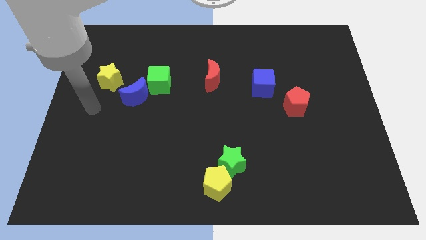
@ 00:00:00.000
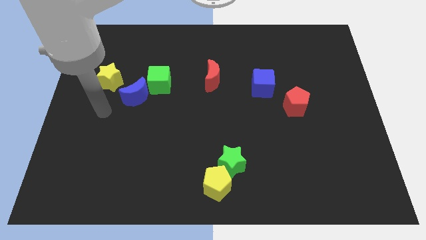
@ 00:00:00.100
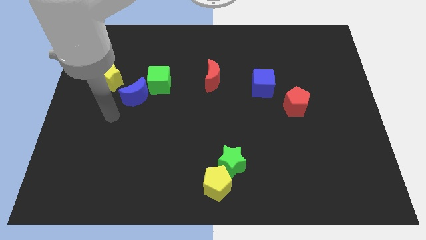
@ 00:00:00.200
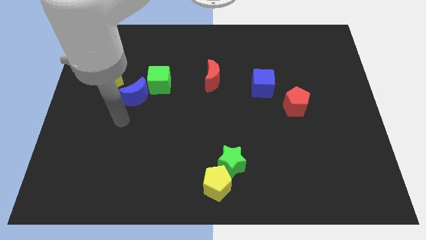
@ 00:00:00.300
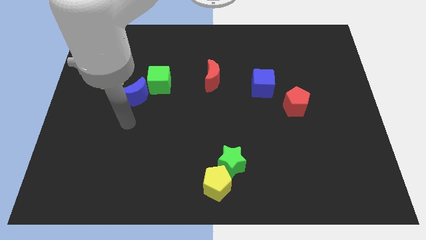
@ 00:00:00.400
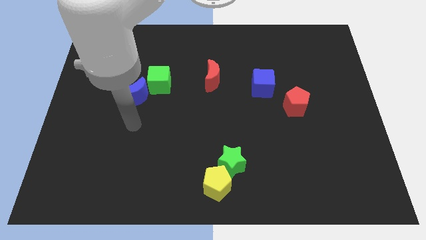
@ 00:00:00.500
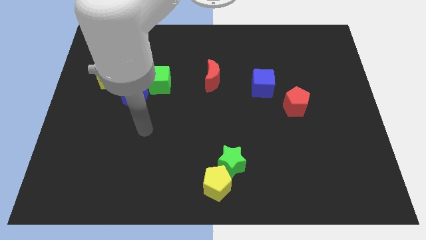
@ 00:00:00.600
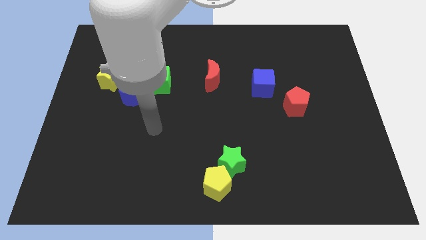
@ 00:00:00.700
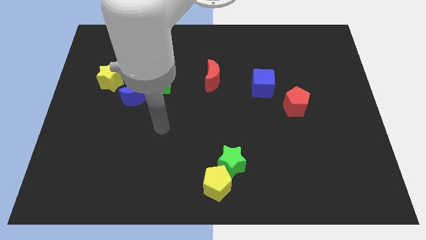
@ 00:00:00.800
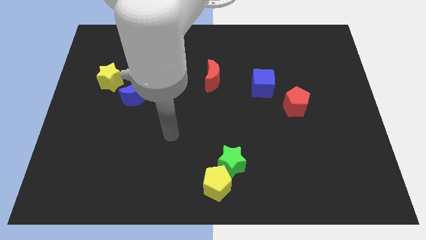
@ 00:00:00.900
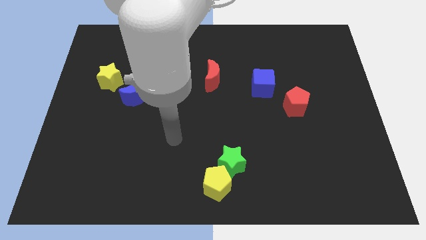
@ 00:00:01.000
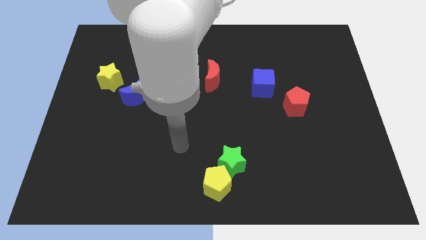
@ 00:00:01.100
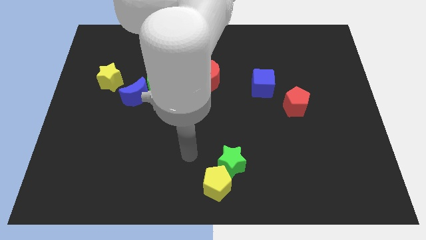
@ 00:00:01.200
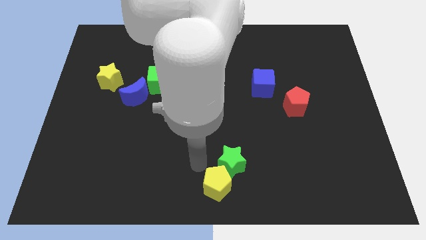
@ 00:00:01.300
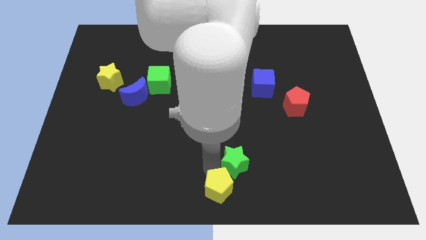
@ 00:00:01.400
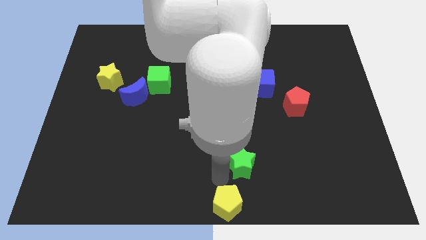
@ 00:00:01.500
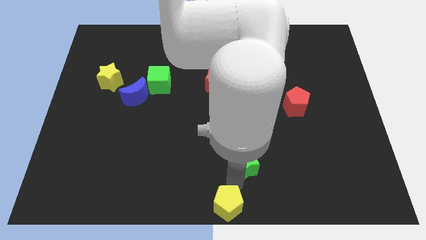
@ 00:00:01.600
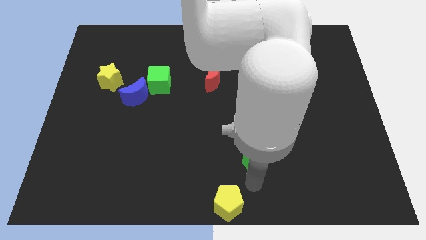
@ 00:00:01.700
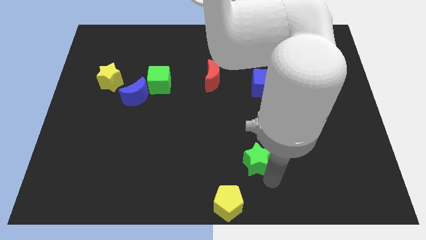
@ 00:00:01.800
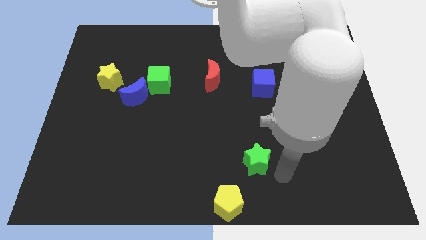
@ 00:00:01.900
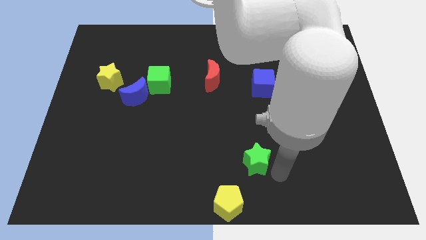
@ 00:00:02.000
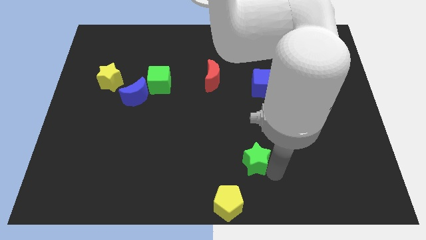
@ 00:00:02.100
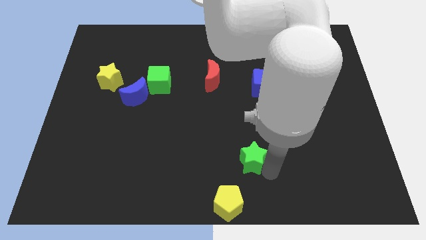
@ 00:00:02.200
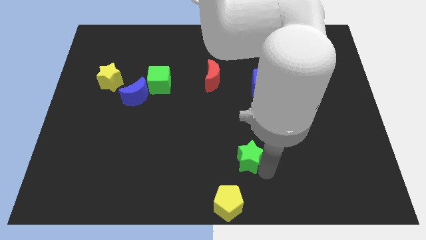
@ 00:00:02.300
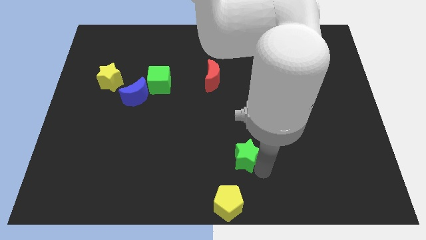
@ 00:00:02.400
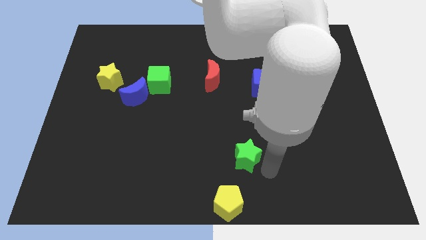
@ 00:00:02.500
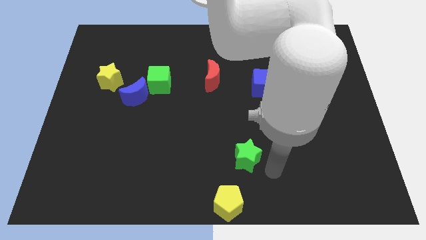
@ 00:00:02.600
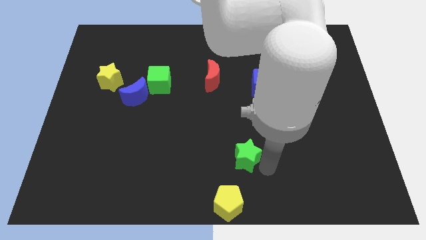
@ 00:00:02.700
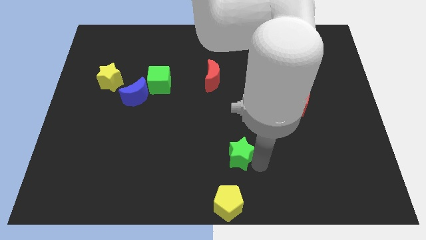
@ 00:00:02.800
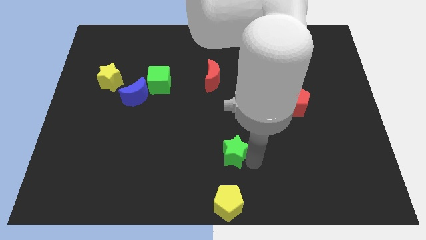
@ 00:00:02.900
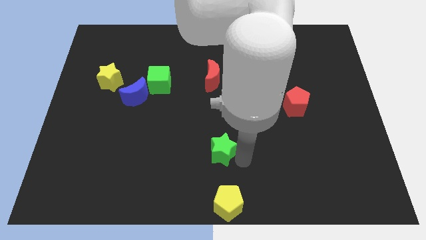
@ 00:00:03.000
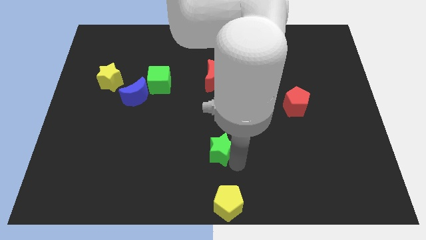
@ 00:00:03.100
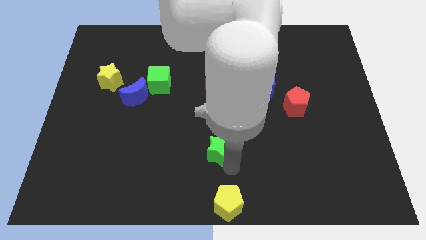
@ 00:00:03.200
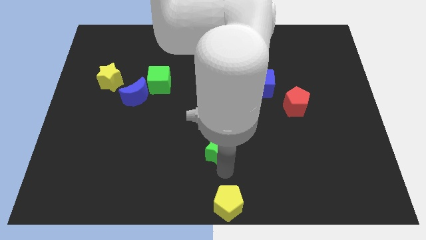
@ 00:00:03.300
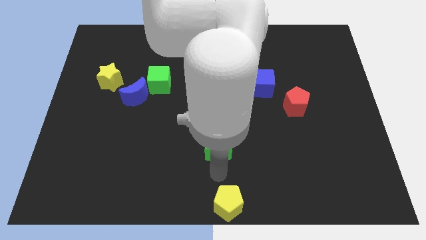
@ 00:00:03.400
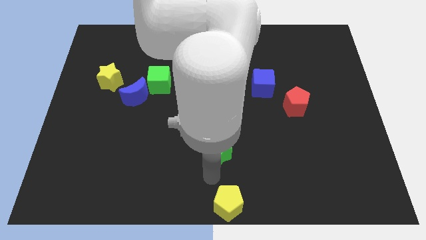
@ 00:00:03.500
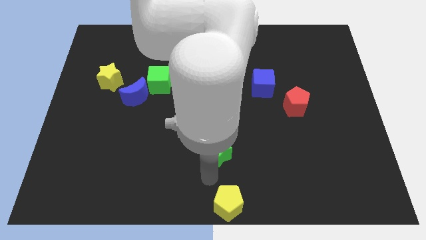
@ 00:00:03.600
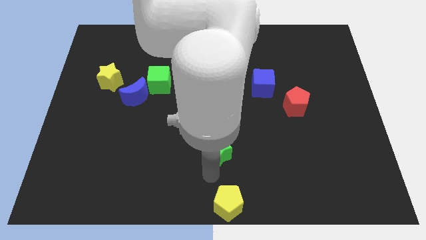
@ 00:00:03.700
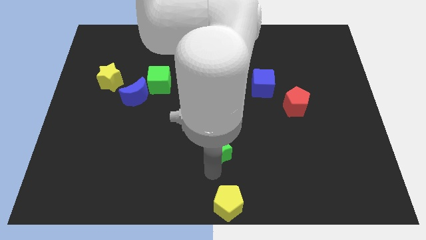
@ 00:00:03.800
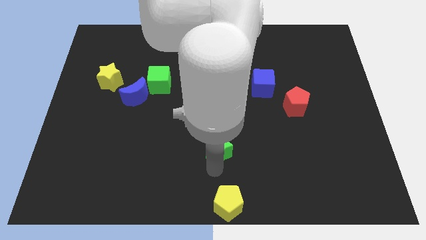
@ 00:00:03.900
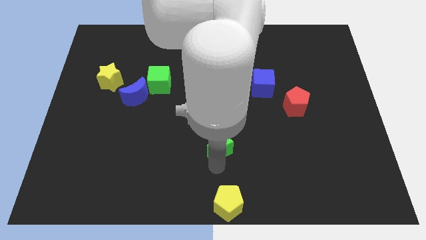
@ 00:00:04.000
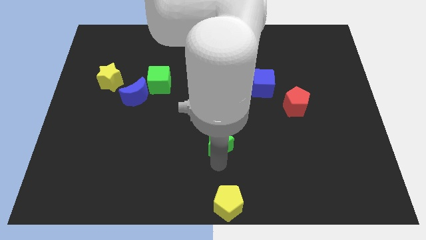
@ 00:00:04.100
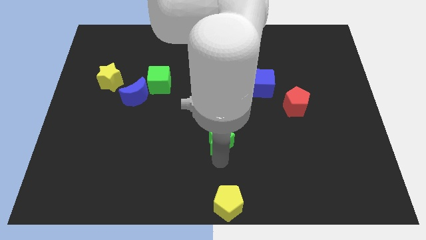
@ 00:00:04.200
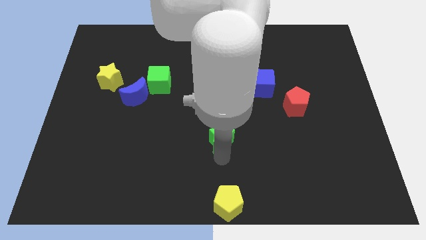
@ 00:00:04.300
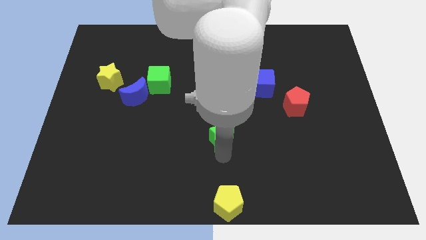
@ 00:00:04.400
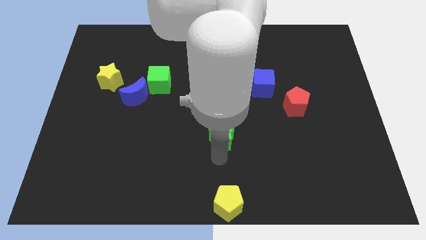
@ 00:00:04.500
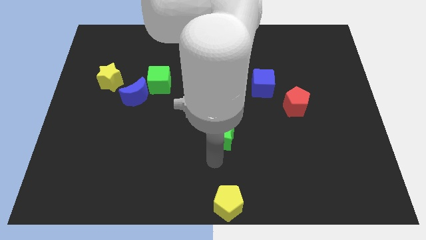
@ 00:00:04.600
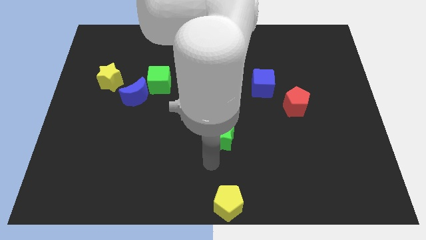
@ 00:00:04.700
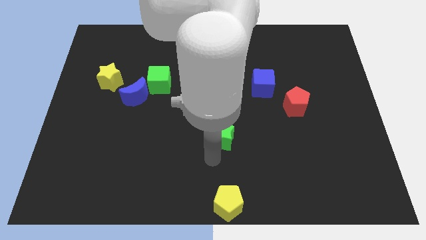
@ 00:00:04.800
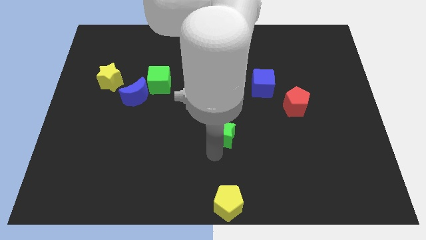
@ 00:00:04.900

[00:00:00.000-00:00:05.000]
slide the green star somewhat upwards

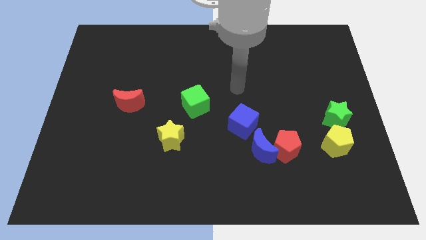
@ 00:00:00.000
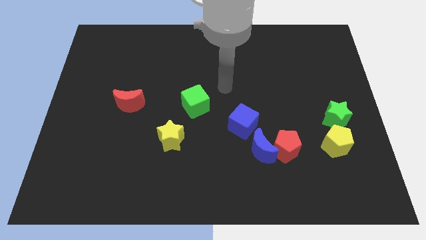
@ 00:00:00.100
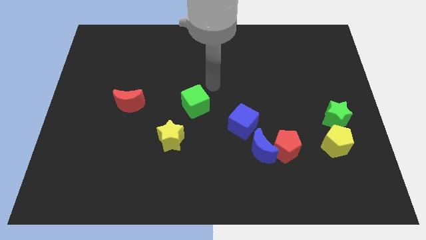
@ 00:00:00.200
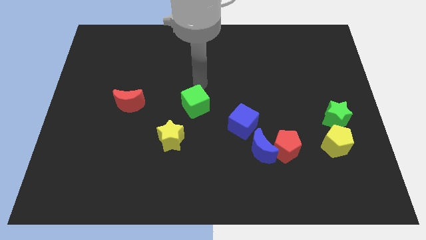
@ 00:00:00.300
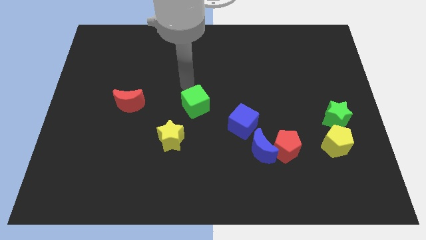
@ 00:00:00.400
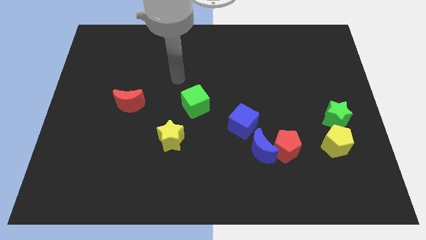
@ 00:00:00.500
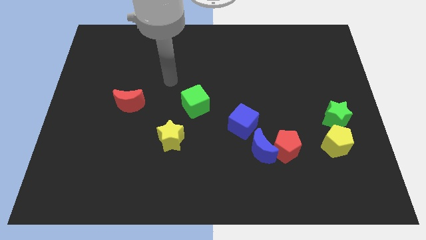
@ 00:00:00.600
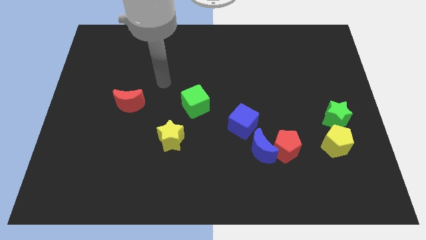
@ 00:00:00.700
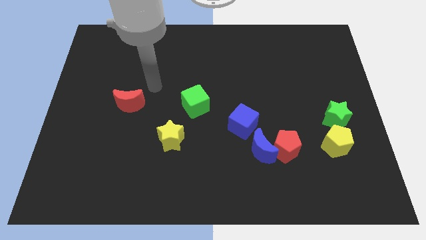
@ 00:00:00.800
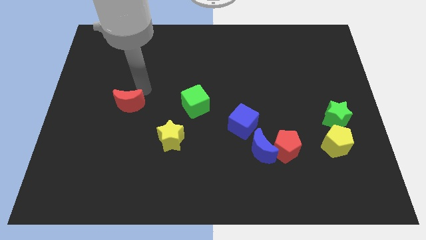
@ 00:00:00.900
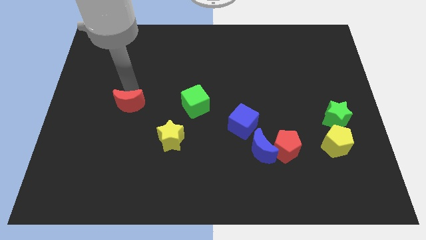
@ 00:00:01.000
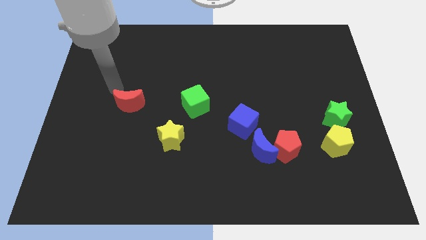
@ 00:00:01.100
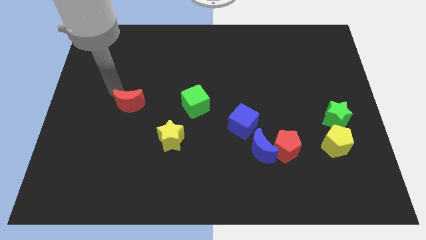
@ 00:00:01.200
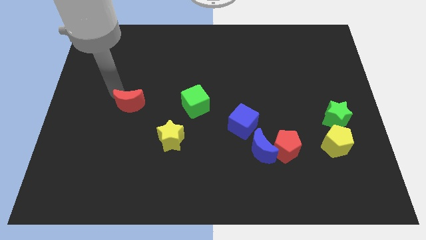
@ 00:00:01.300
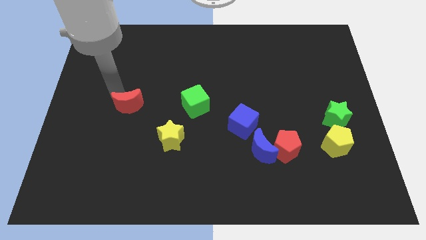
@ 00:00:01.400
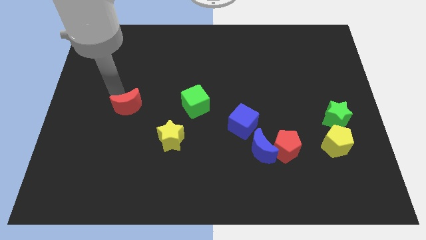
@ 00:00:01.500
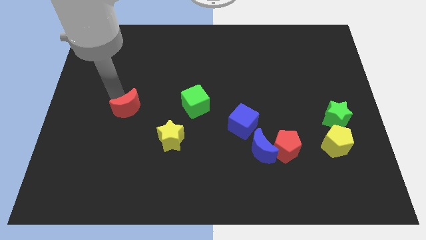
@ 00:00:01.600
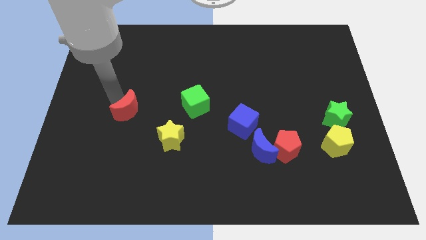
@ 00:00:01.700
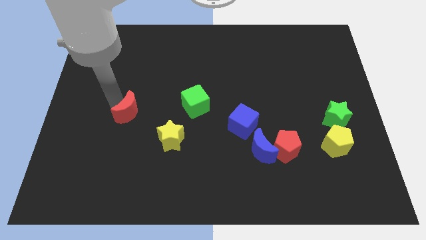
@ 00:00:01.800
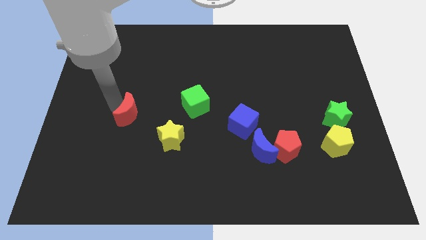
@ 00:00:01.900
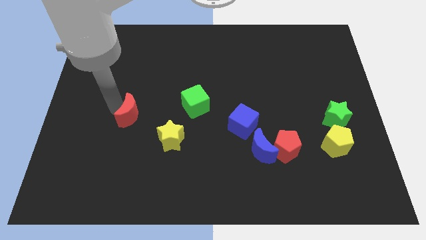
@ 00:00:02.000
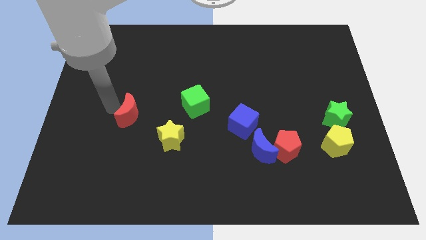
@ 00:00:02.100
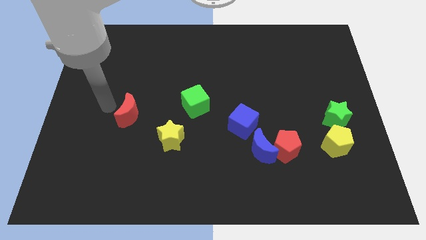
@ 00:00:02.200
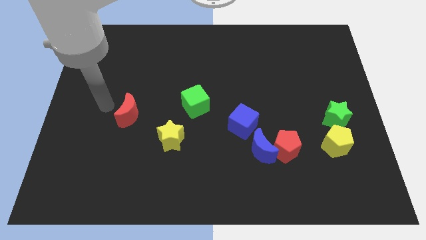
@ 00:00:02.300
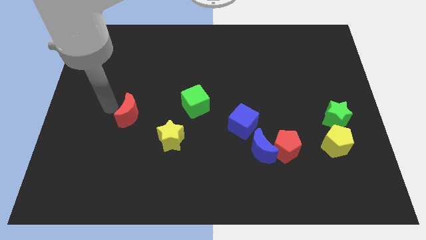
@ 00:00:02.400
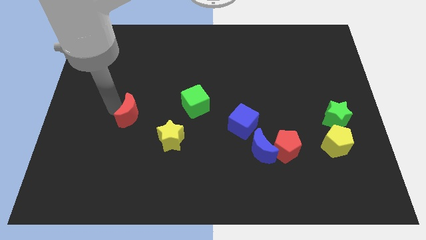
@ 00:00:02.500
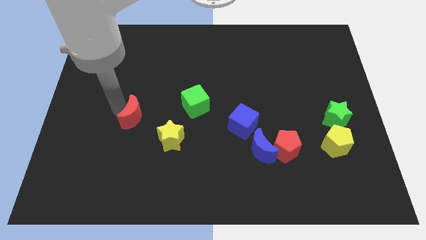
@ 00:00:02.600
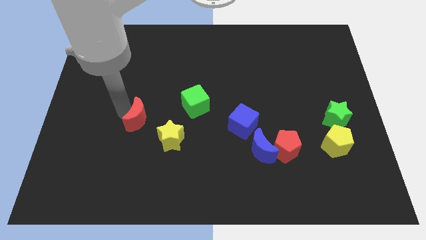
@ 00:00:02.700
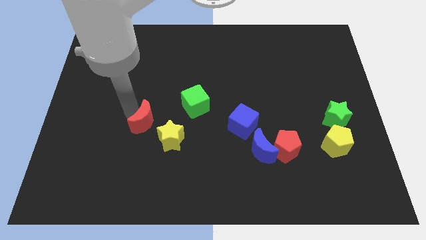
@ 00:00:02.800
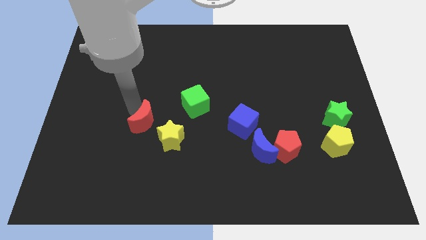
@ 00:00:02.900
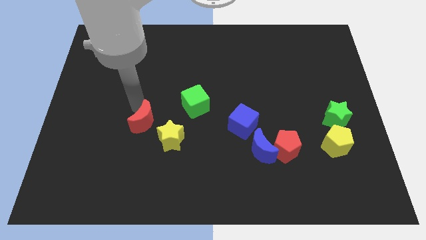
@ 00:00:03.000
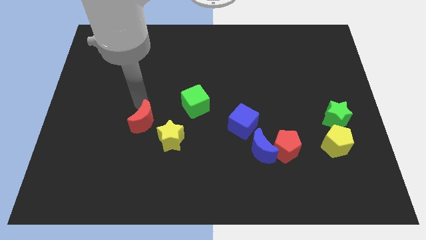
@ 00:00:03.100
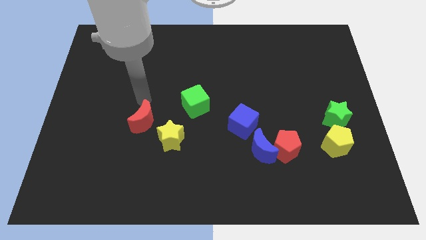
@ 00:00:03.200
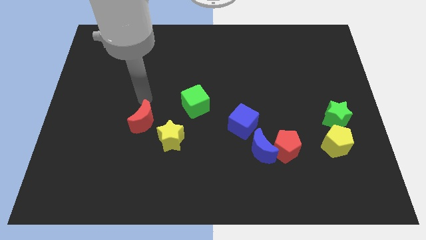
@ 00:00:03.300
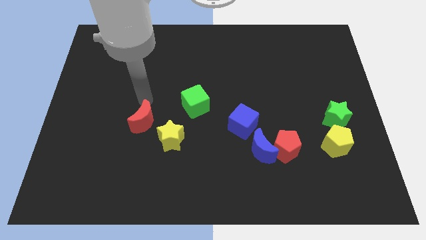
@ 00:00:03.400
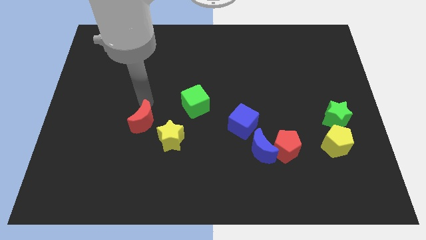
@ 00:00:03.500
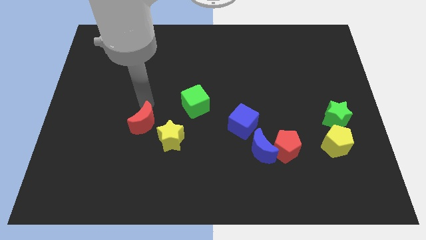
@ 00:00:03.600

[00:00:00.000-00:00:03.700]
slide the red moon slightly downwards and then to the right
